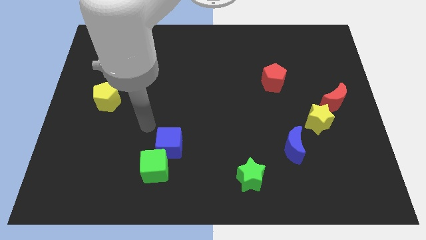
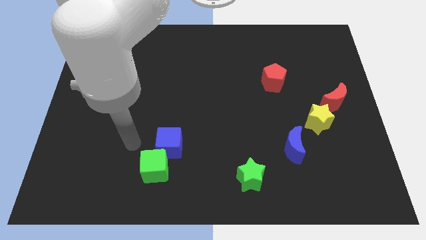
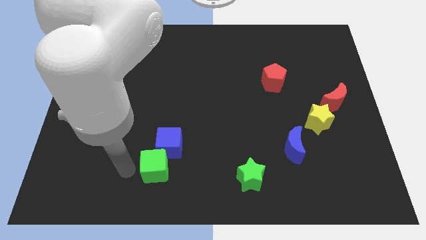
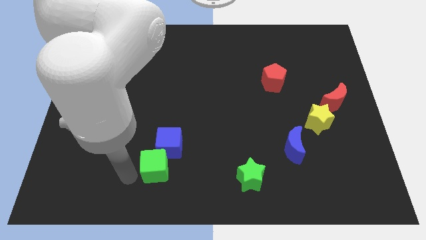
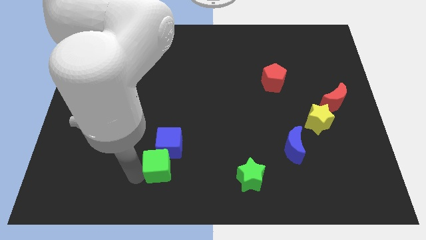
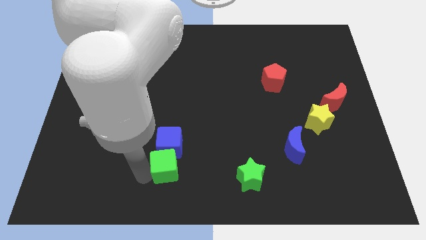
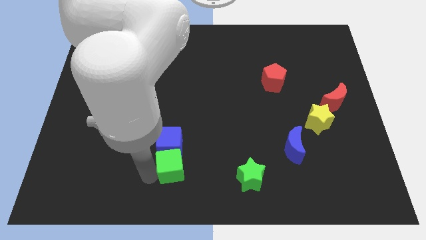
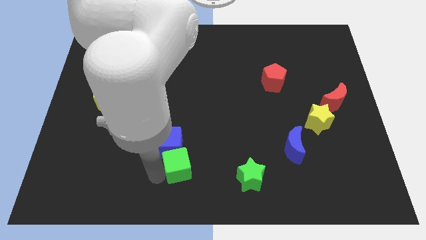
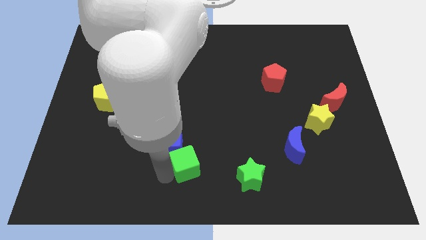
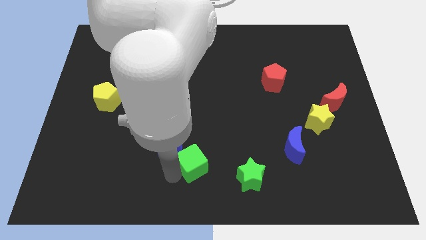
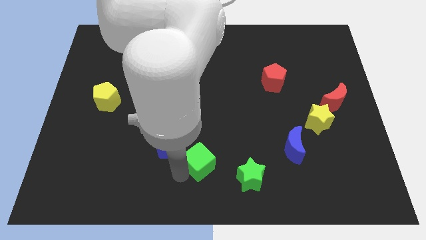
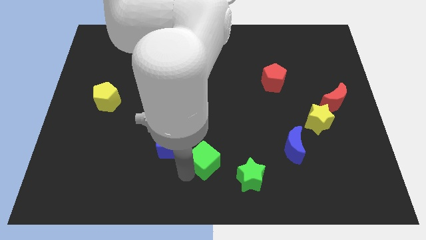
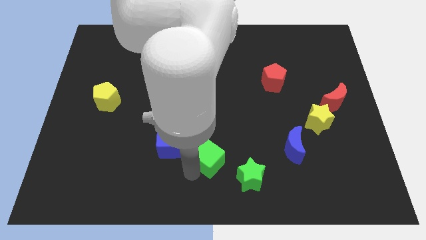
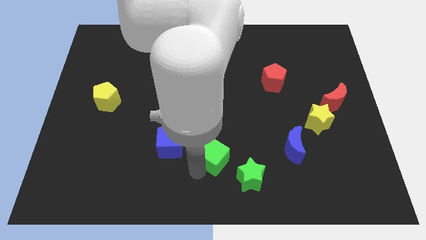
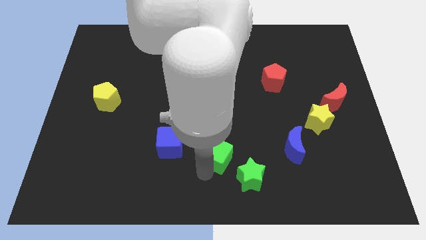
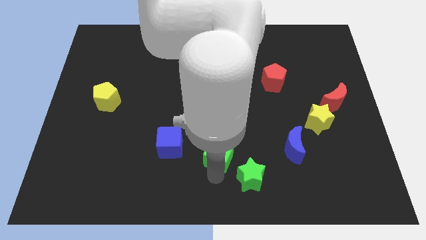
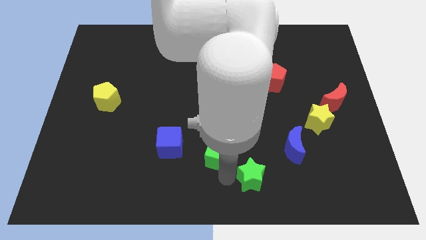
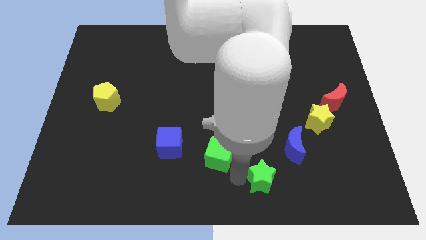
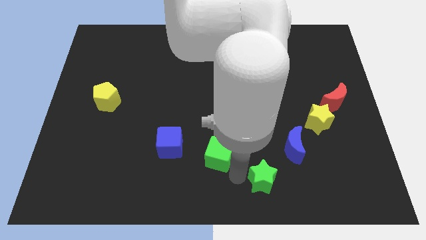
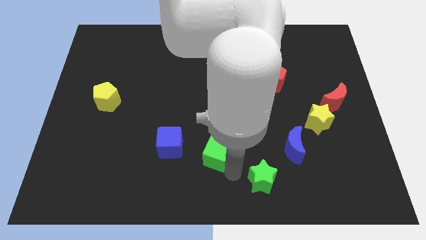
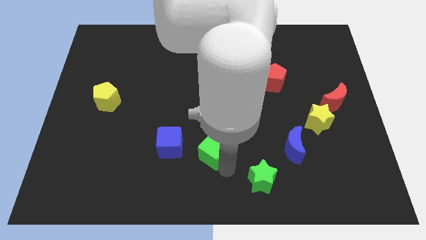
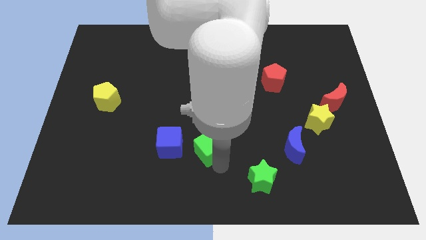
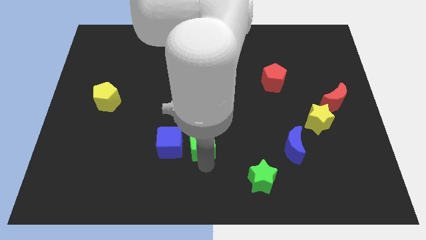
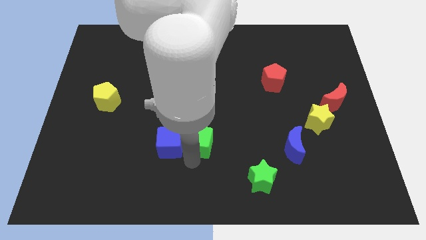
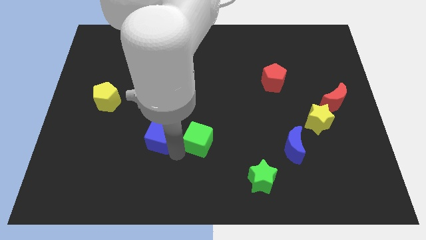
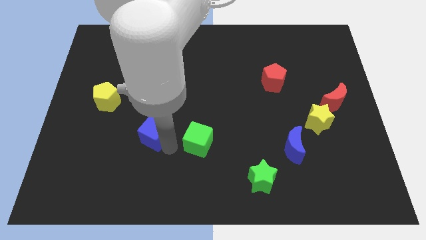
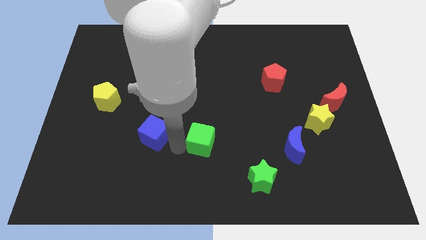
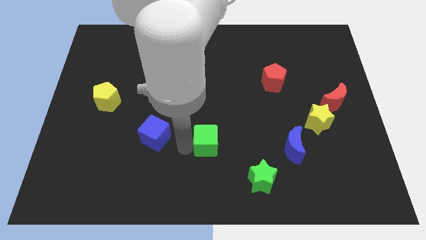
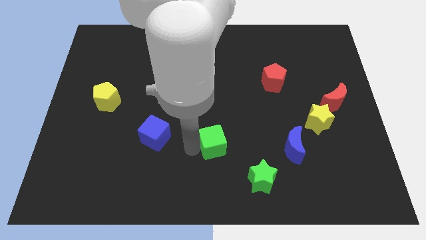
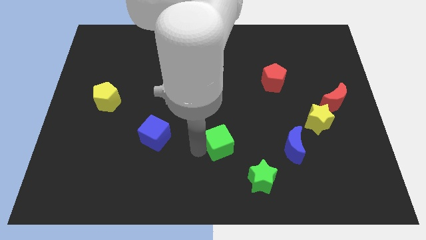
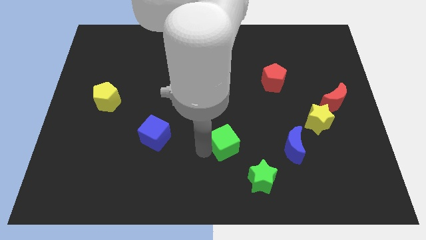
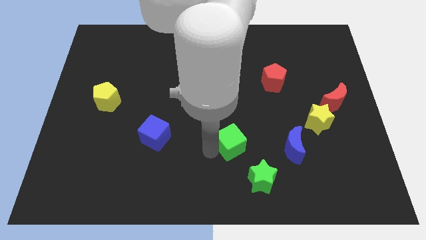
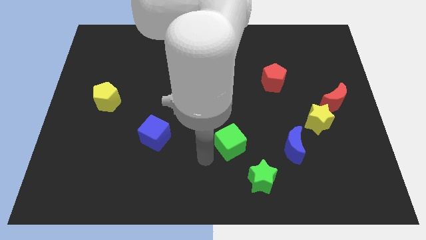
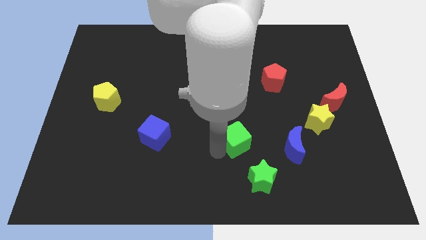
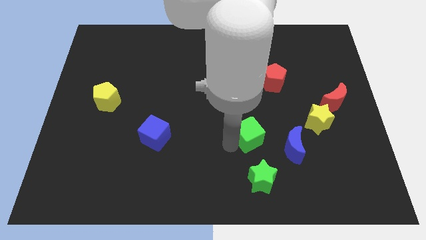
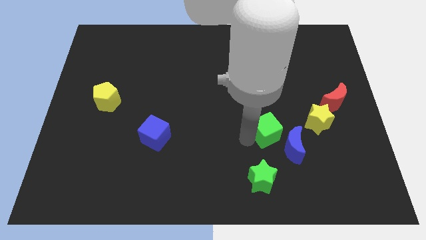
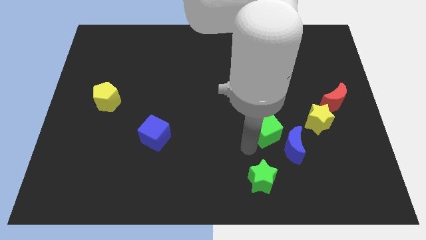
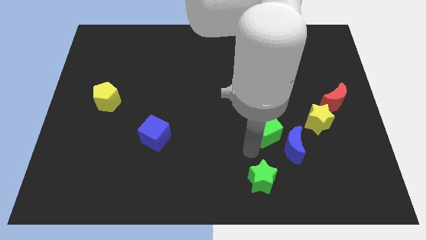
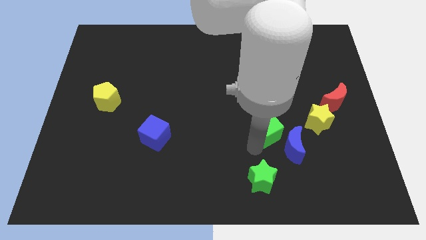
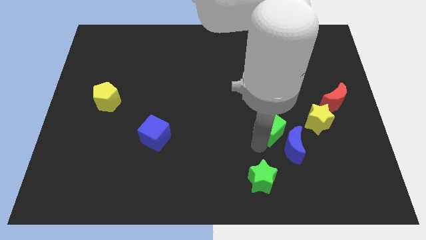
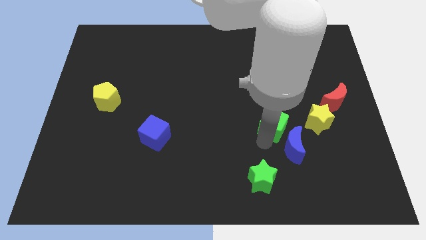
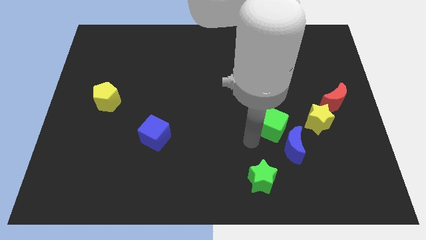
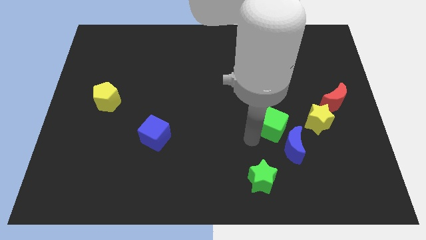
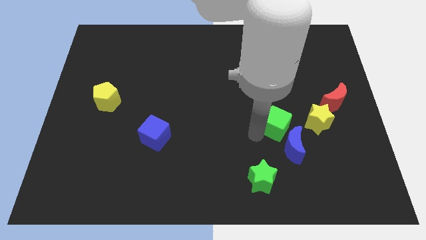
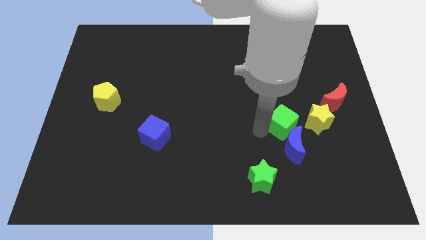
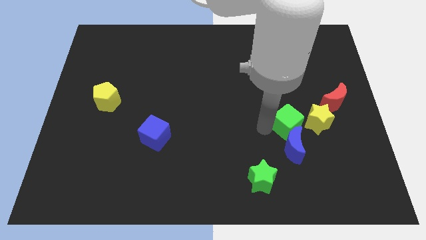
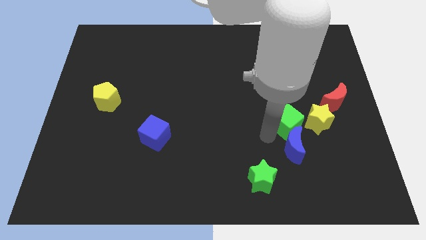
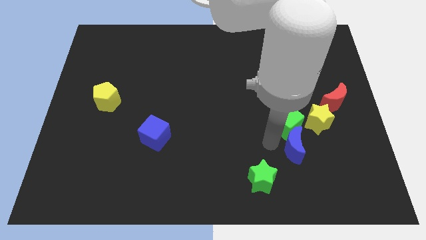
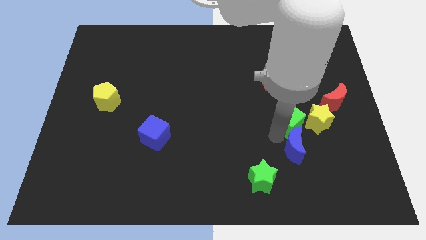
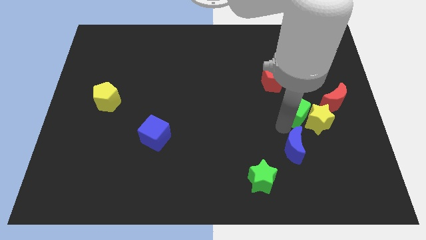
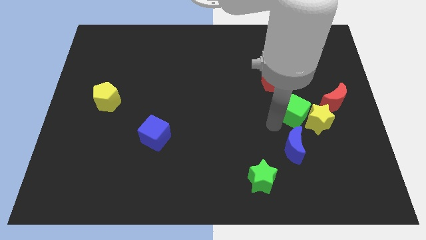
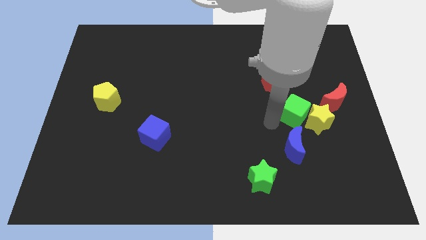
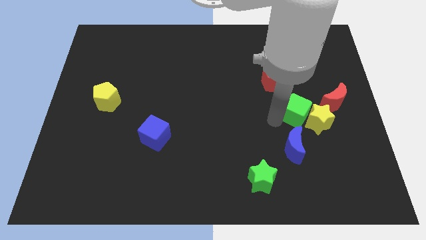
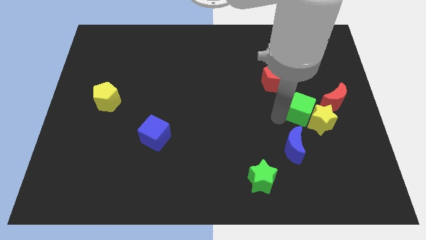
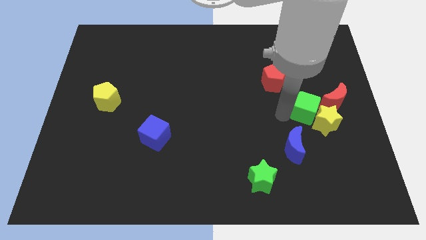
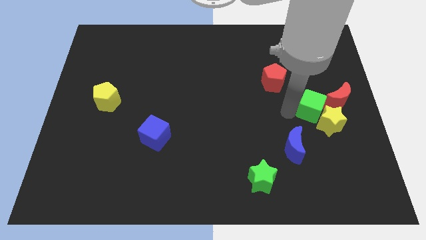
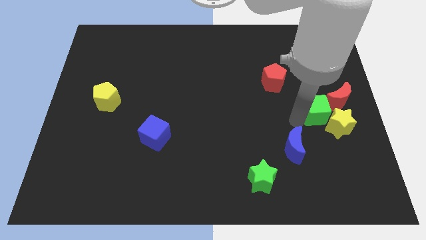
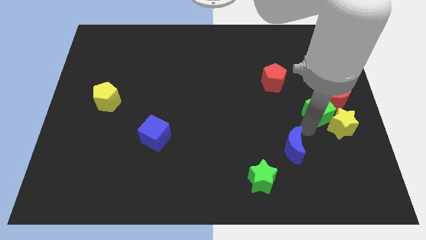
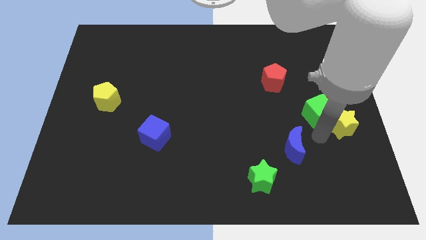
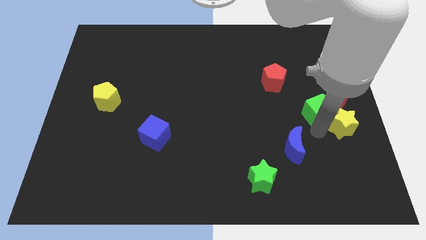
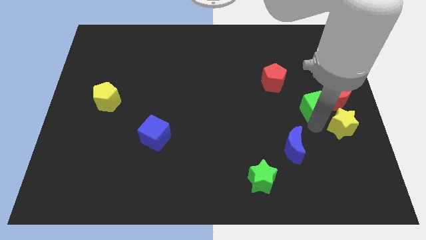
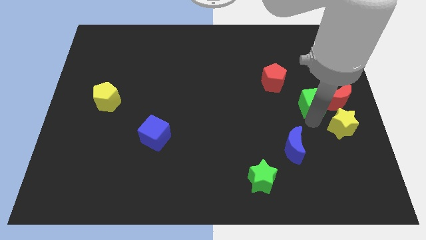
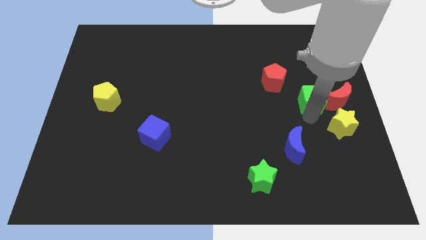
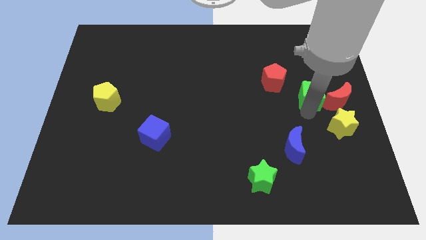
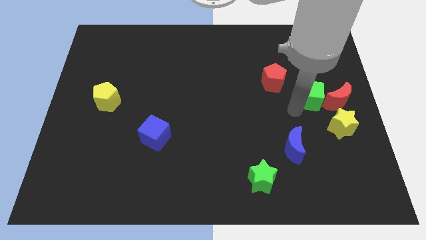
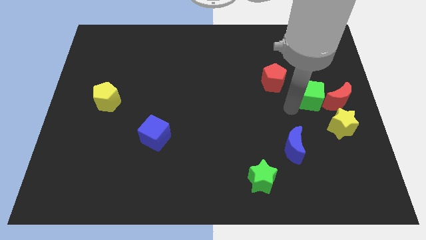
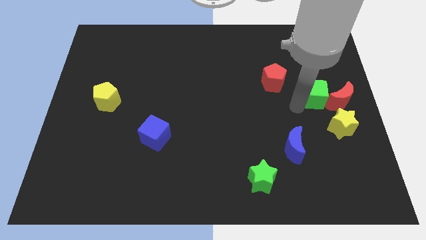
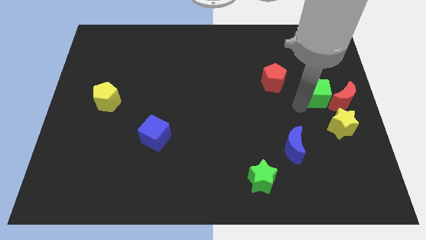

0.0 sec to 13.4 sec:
move the green cube to the right side
